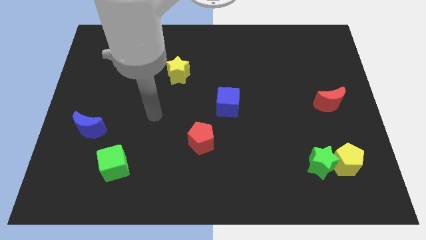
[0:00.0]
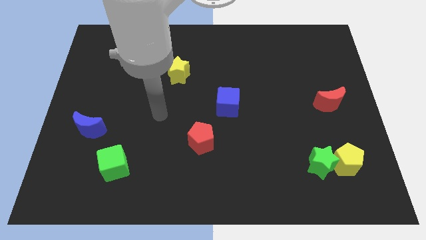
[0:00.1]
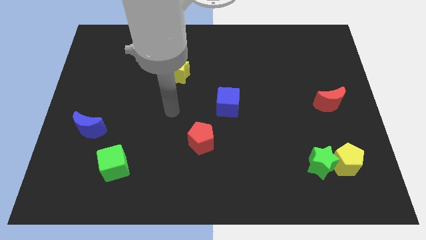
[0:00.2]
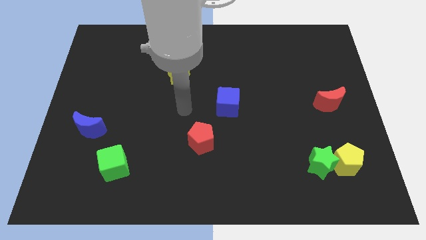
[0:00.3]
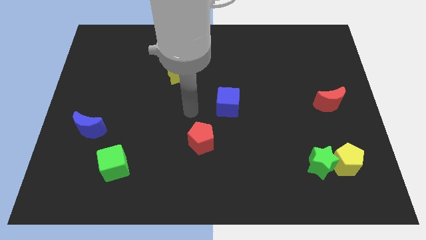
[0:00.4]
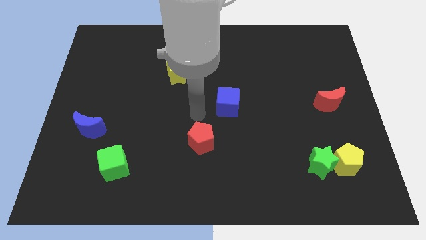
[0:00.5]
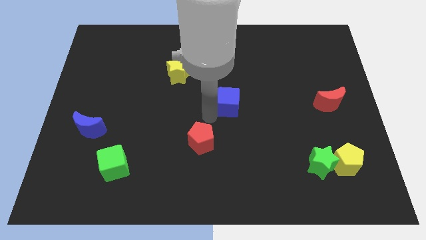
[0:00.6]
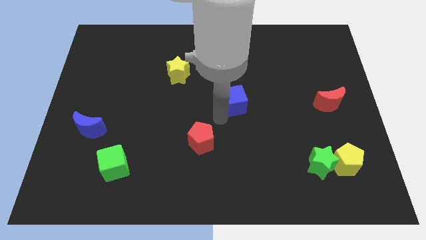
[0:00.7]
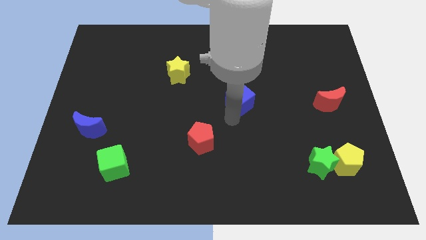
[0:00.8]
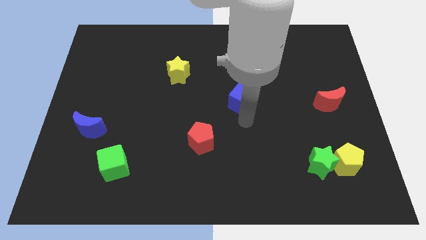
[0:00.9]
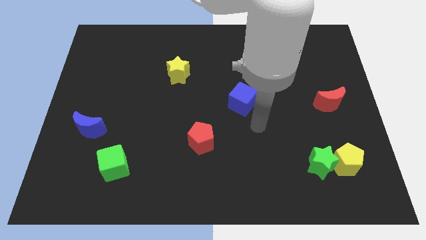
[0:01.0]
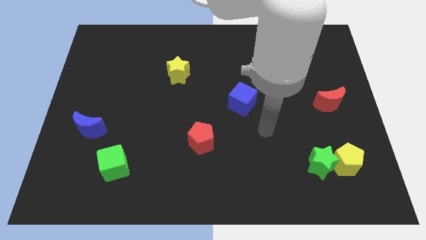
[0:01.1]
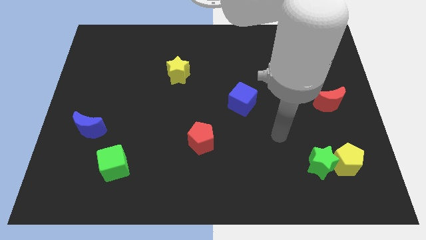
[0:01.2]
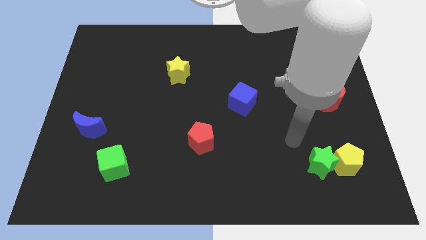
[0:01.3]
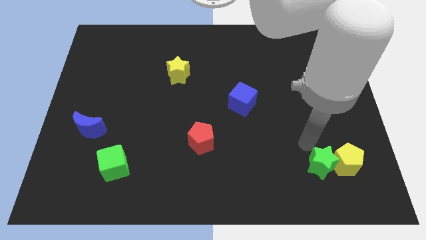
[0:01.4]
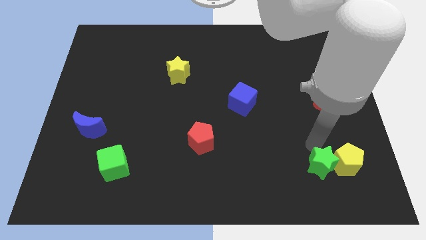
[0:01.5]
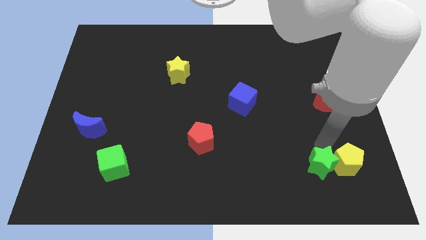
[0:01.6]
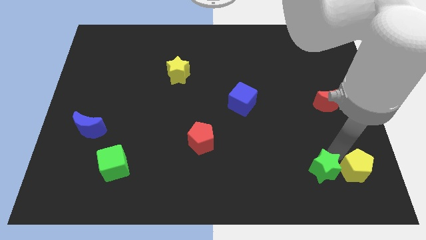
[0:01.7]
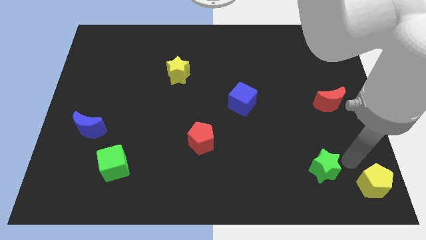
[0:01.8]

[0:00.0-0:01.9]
pull the green star apart from the yellow pentagon

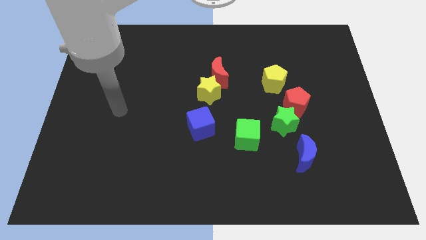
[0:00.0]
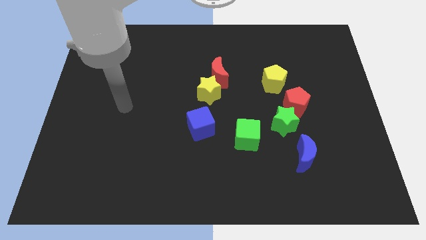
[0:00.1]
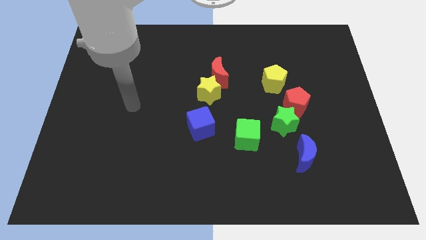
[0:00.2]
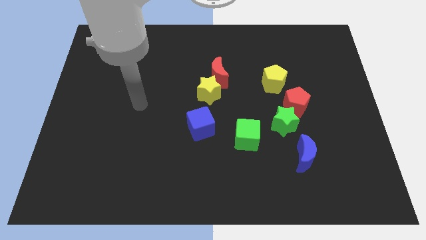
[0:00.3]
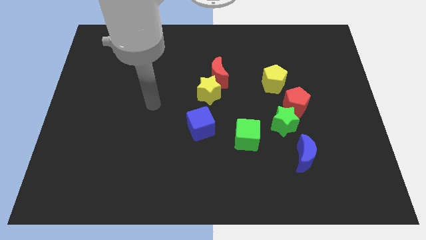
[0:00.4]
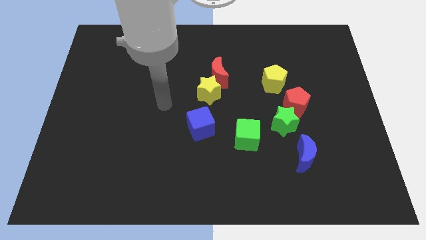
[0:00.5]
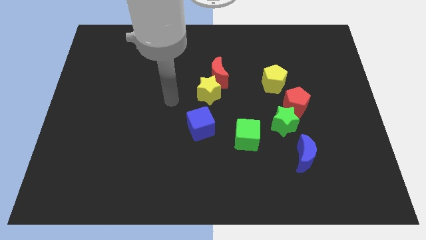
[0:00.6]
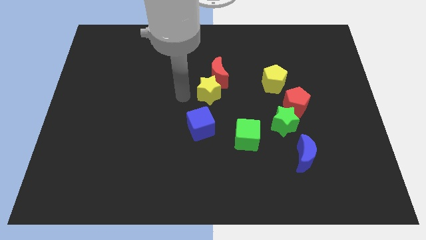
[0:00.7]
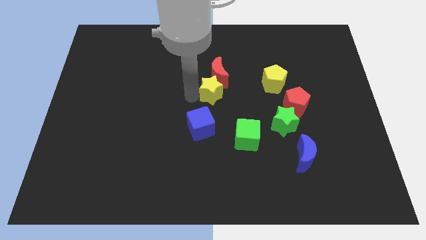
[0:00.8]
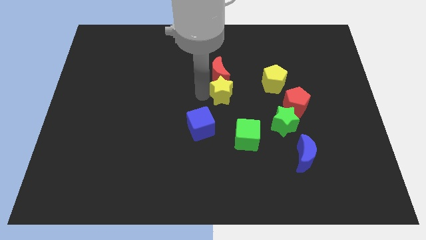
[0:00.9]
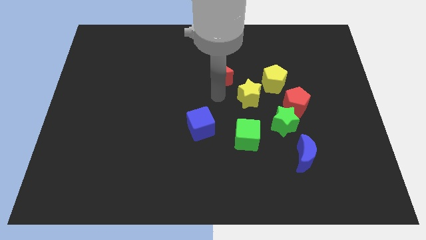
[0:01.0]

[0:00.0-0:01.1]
pull the red moon apart from the yellow star

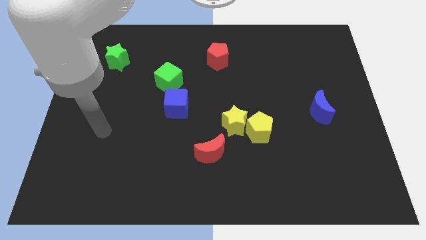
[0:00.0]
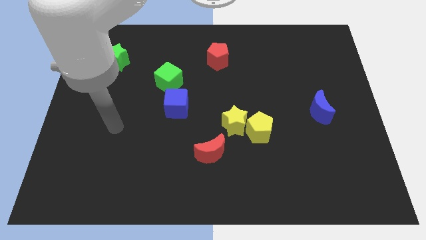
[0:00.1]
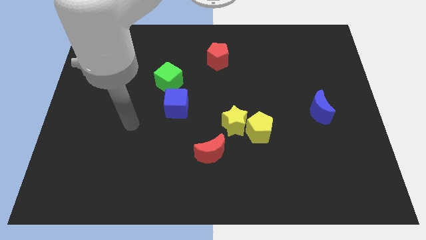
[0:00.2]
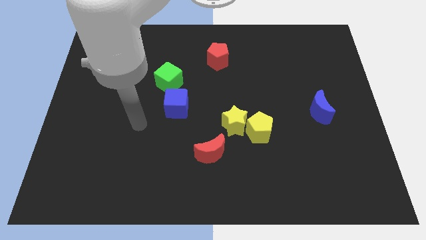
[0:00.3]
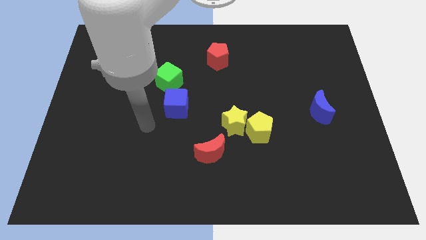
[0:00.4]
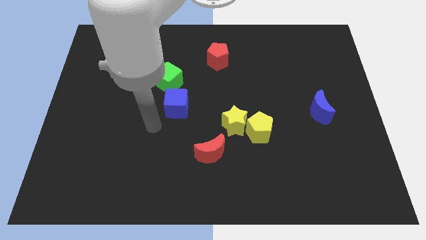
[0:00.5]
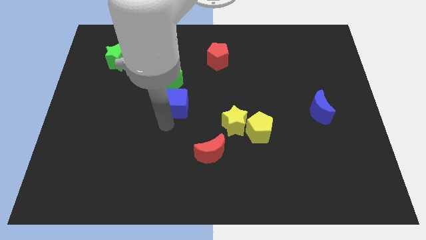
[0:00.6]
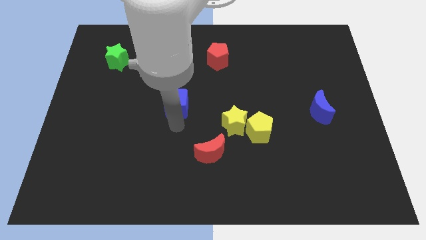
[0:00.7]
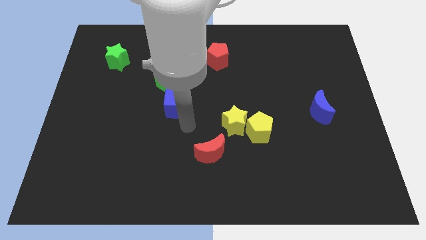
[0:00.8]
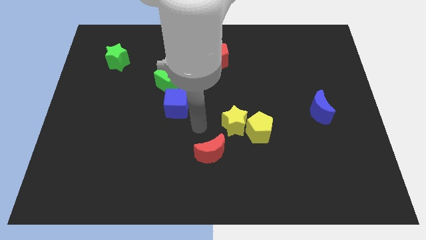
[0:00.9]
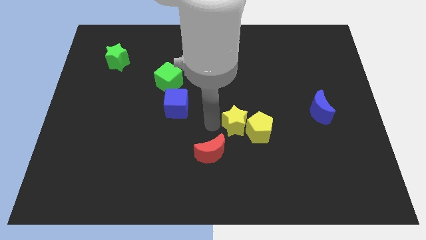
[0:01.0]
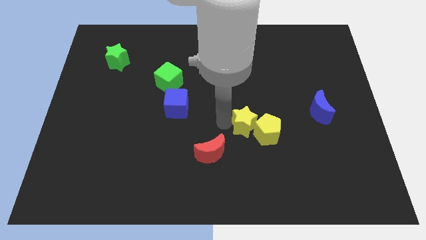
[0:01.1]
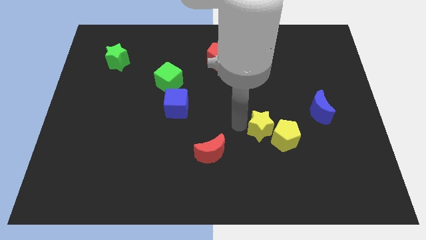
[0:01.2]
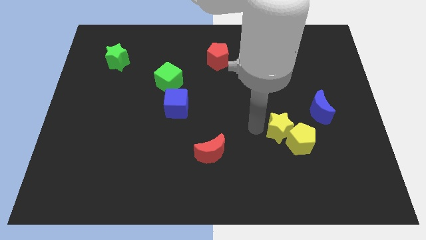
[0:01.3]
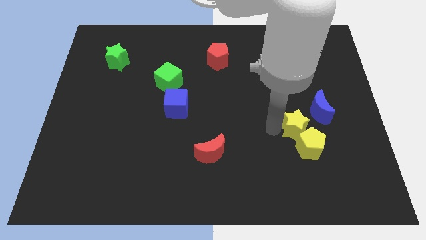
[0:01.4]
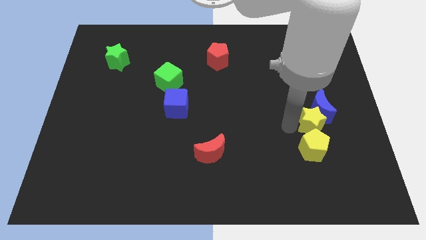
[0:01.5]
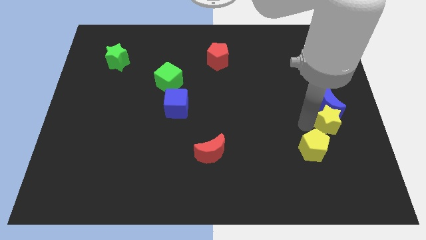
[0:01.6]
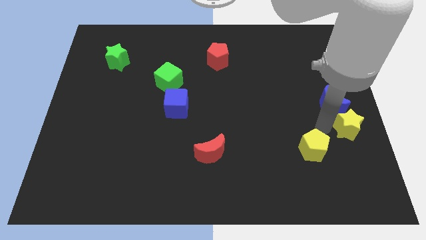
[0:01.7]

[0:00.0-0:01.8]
move the yellow pentagon away from the yellow star

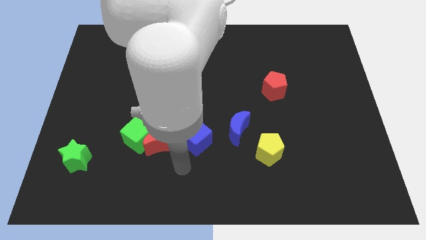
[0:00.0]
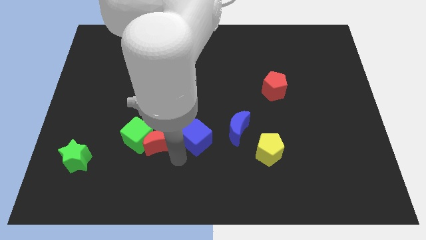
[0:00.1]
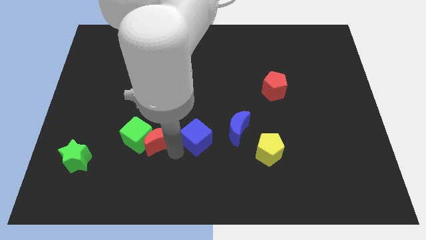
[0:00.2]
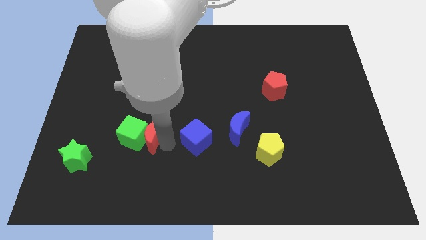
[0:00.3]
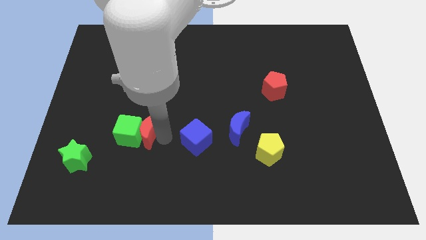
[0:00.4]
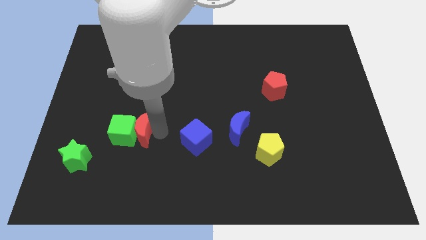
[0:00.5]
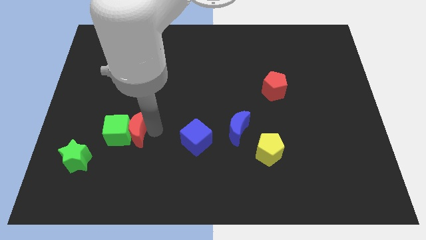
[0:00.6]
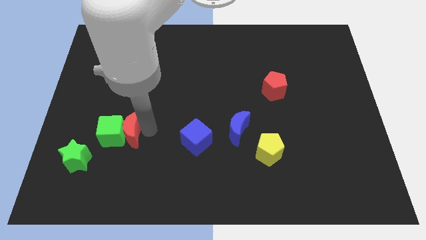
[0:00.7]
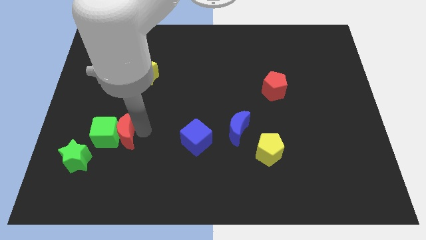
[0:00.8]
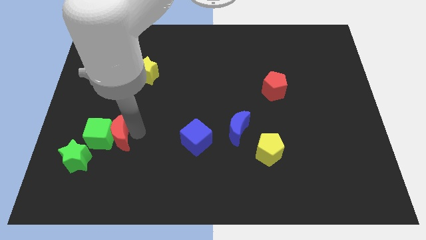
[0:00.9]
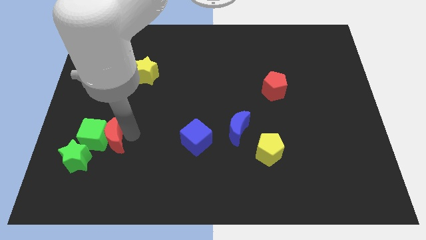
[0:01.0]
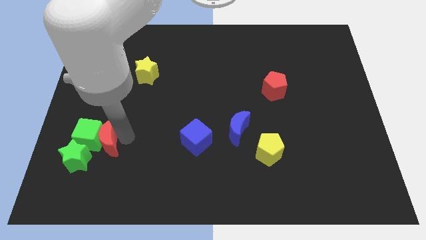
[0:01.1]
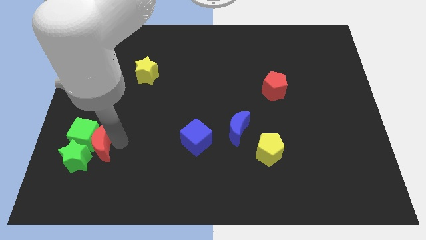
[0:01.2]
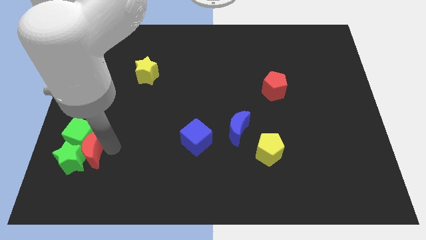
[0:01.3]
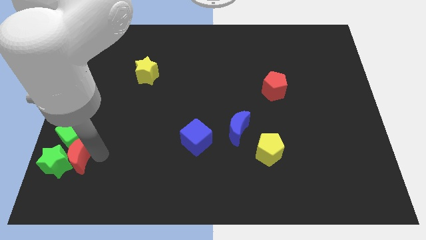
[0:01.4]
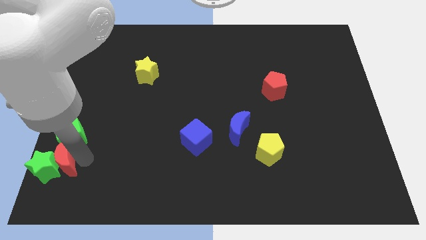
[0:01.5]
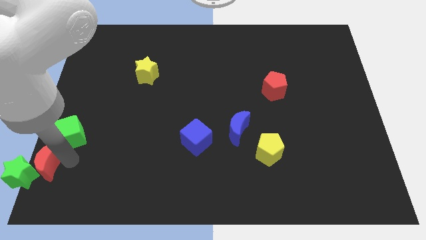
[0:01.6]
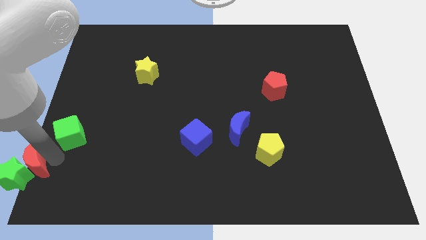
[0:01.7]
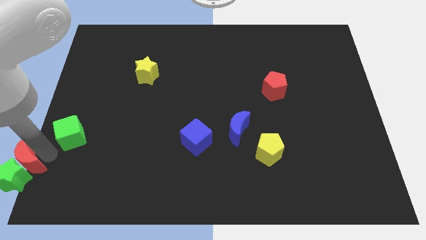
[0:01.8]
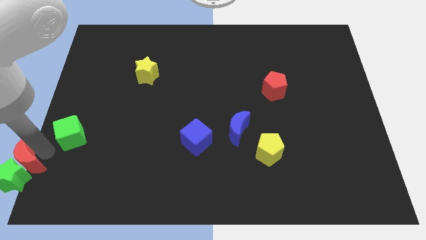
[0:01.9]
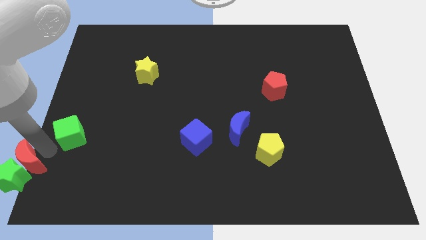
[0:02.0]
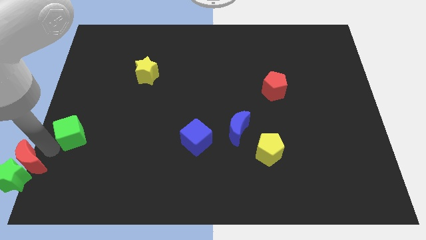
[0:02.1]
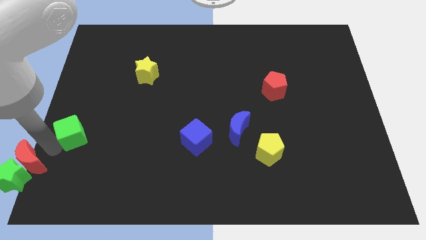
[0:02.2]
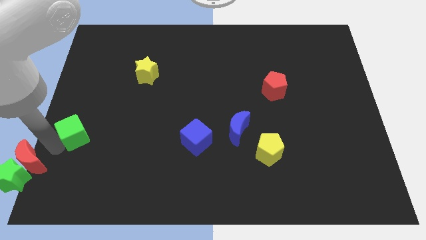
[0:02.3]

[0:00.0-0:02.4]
separate the green cube from the red moon

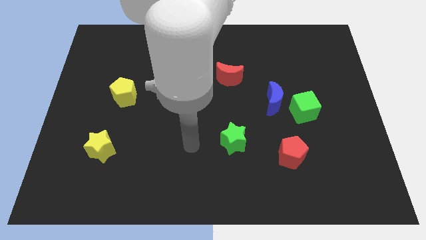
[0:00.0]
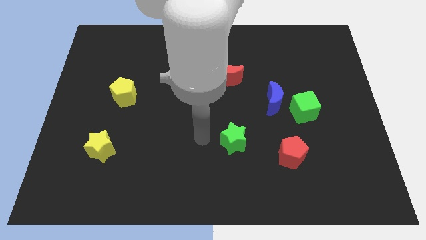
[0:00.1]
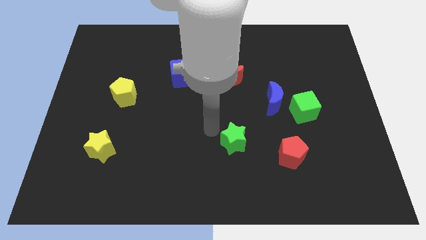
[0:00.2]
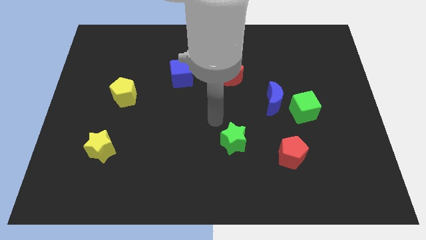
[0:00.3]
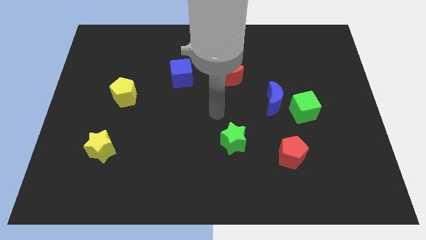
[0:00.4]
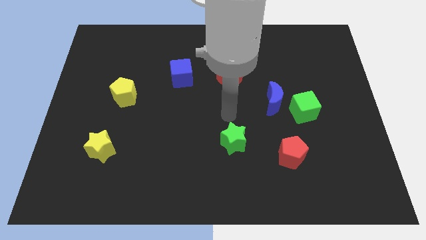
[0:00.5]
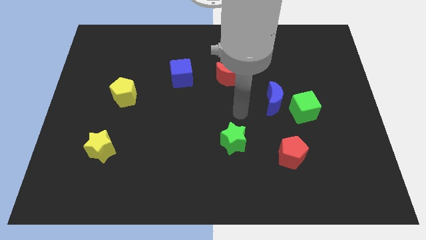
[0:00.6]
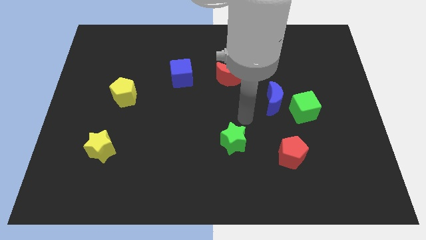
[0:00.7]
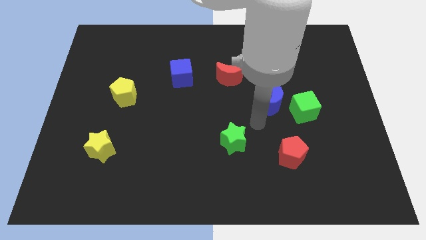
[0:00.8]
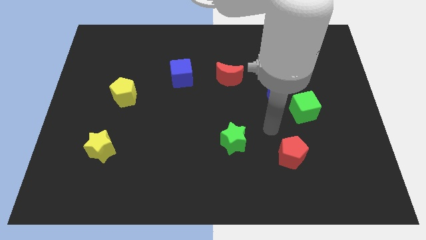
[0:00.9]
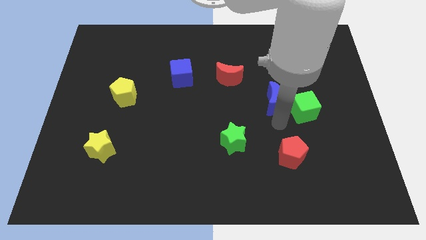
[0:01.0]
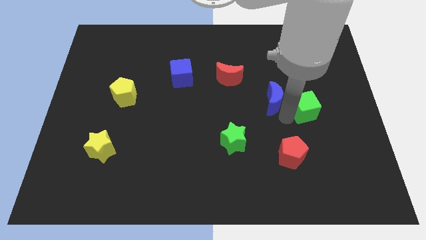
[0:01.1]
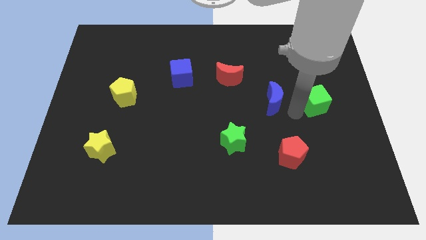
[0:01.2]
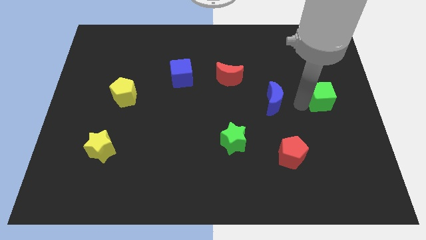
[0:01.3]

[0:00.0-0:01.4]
pull the blue moon apart from the green cube

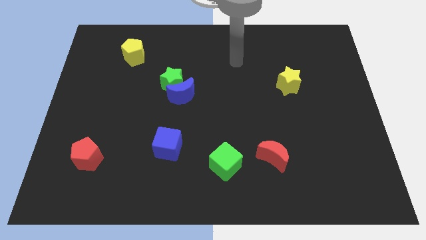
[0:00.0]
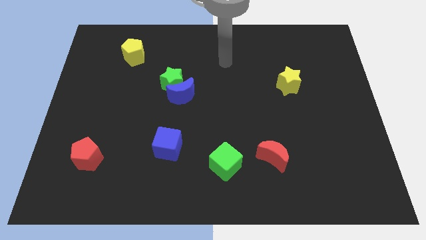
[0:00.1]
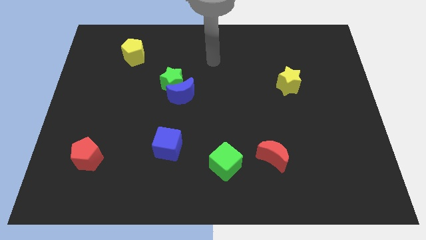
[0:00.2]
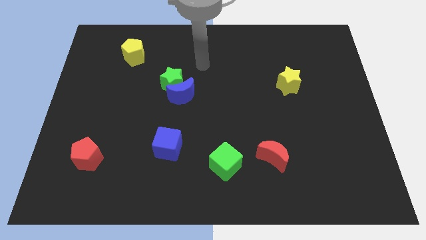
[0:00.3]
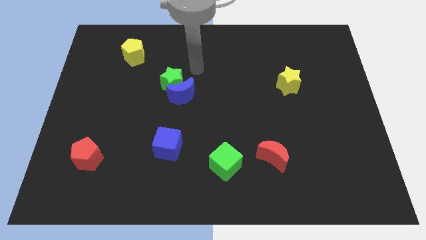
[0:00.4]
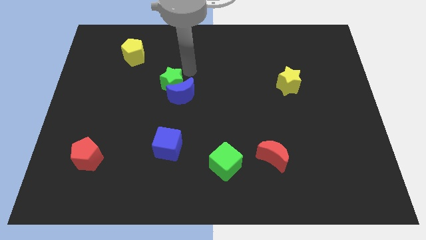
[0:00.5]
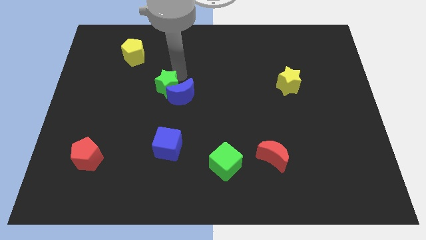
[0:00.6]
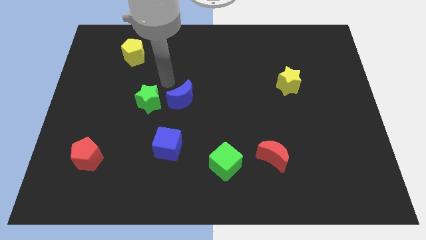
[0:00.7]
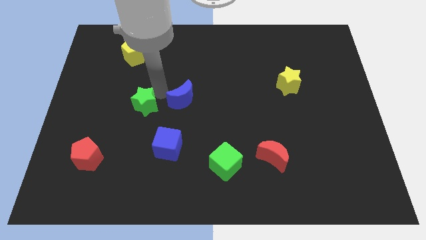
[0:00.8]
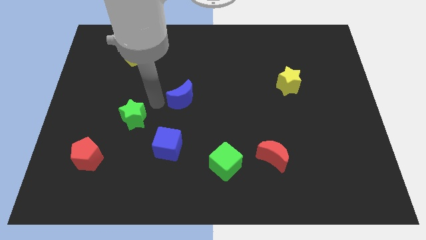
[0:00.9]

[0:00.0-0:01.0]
move the blue moon away from the green star
